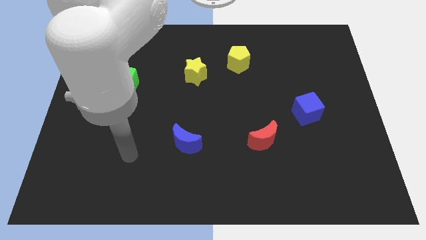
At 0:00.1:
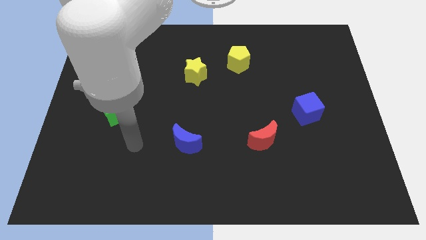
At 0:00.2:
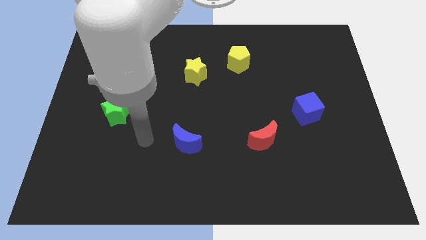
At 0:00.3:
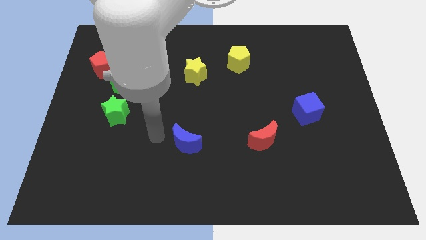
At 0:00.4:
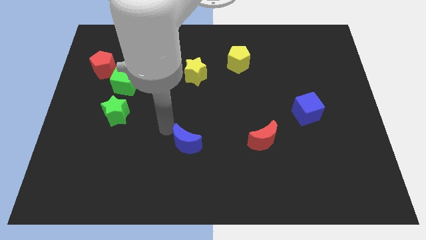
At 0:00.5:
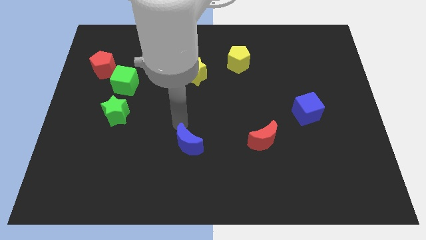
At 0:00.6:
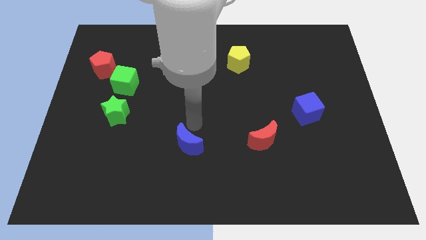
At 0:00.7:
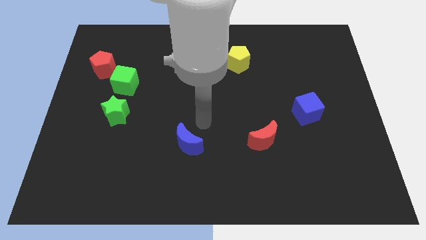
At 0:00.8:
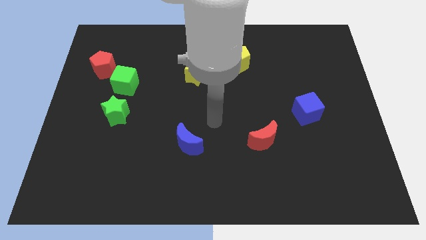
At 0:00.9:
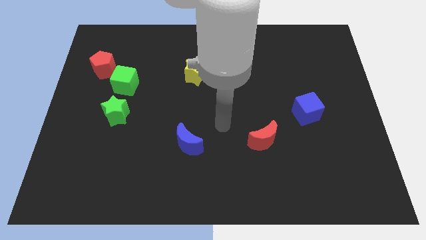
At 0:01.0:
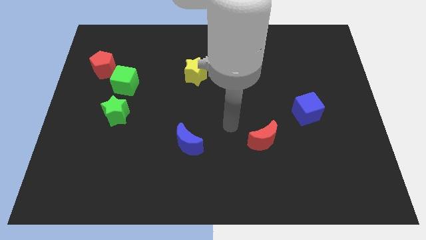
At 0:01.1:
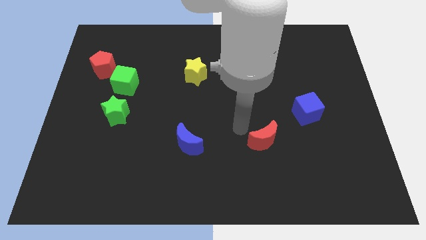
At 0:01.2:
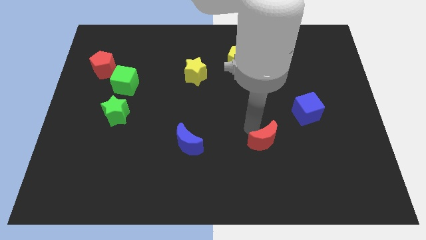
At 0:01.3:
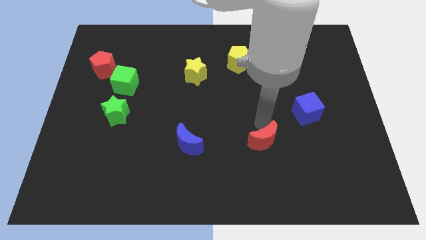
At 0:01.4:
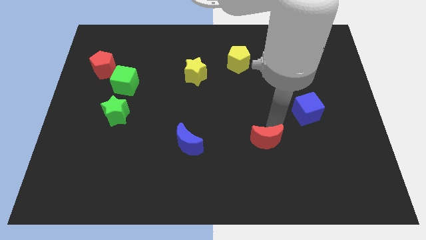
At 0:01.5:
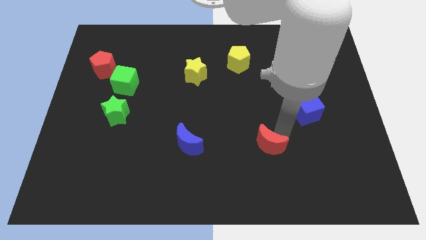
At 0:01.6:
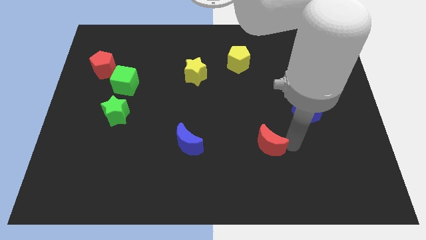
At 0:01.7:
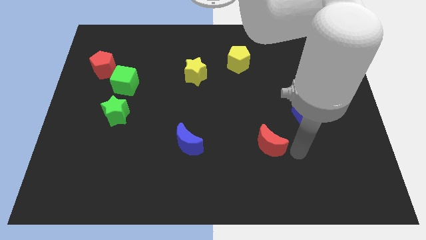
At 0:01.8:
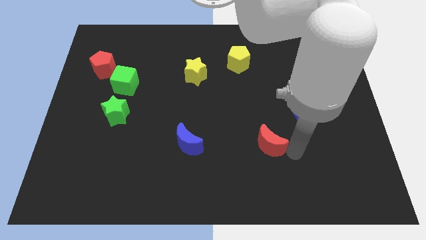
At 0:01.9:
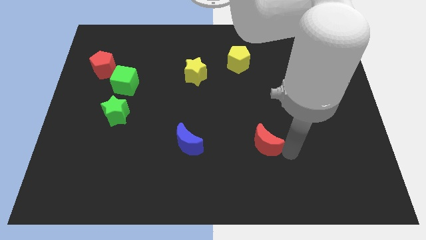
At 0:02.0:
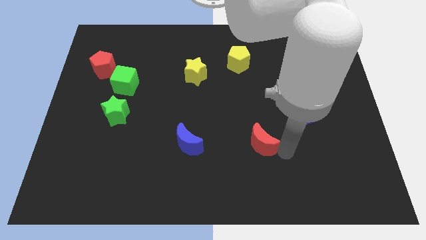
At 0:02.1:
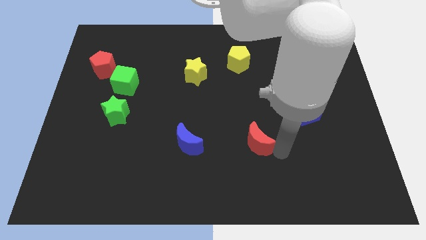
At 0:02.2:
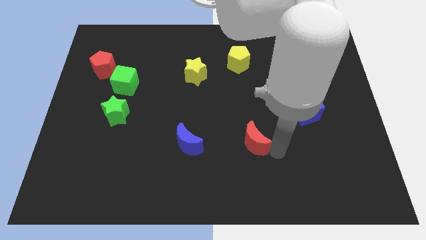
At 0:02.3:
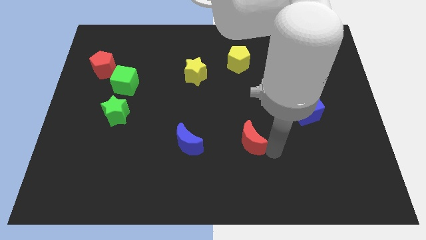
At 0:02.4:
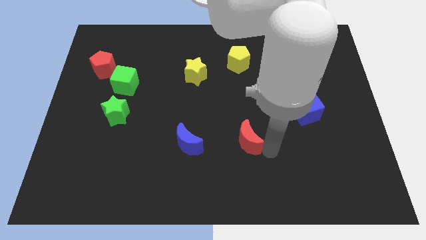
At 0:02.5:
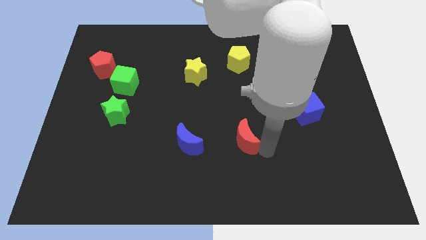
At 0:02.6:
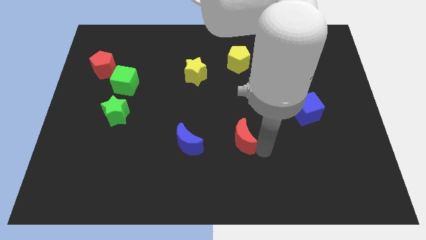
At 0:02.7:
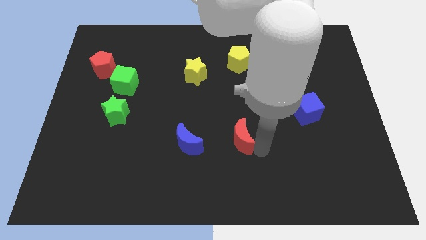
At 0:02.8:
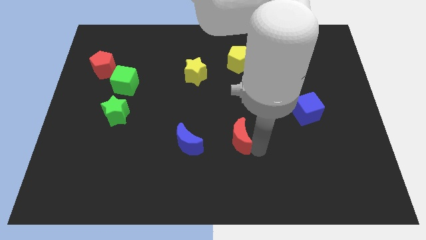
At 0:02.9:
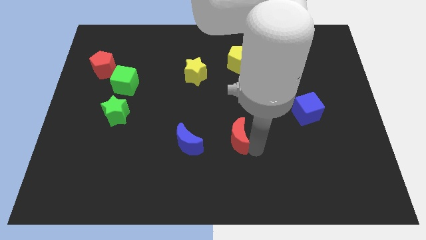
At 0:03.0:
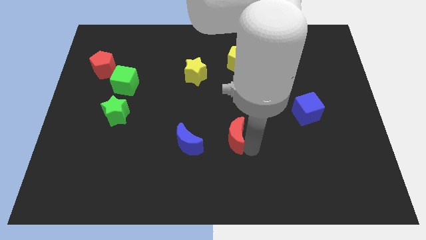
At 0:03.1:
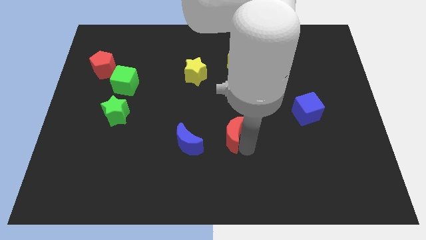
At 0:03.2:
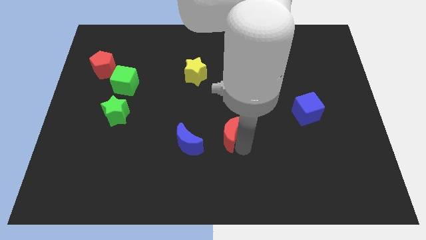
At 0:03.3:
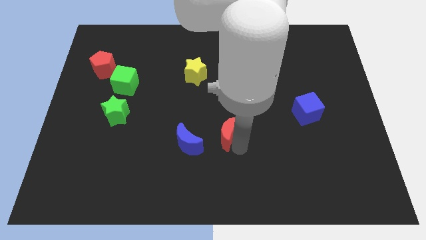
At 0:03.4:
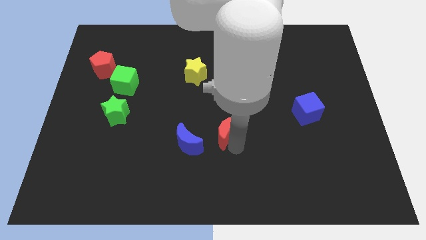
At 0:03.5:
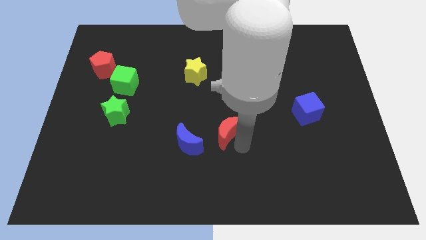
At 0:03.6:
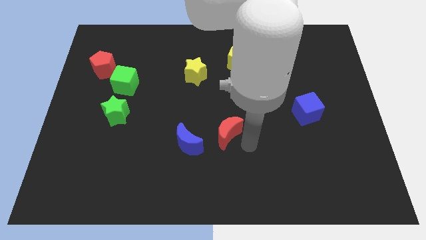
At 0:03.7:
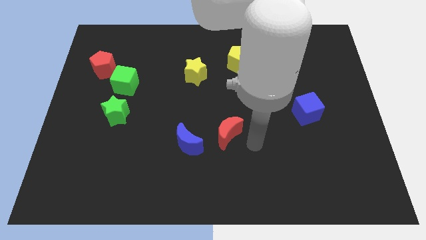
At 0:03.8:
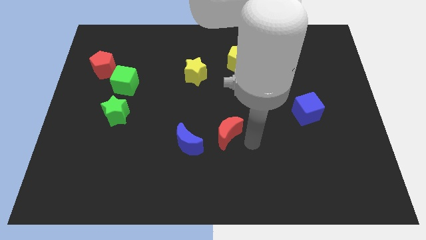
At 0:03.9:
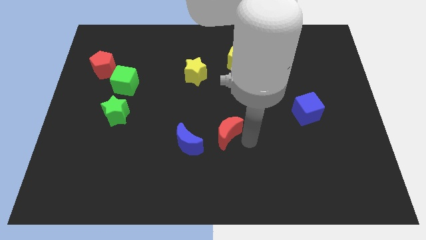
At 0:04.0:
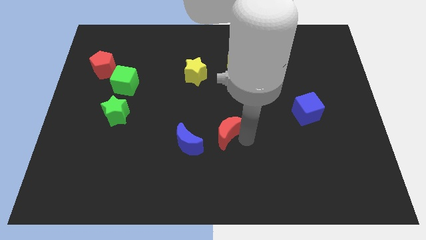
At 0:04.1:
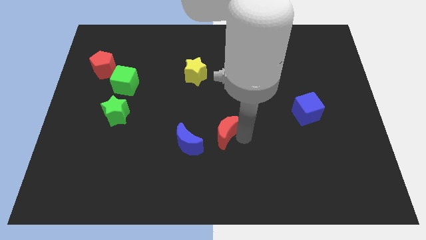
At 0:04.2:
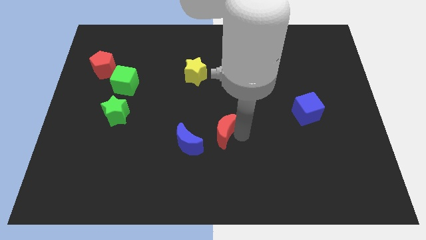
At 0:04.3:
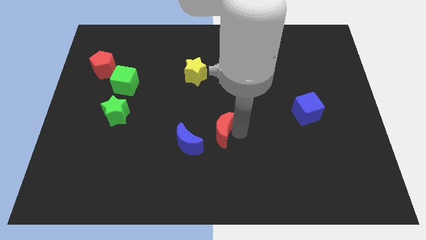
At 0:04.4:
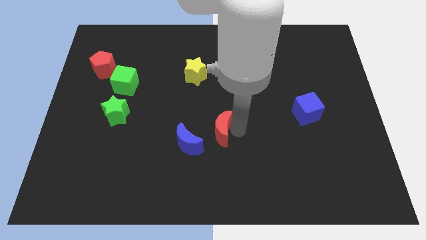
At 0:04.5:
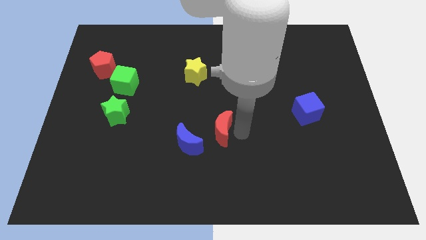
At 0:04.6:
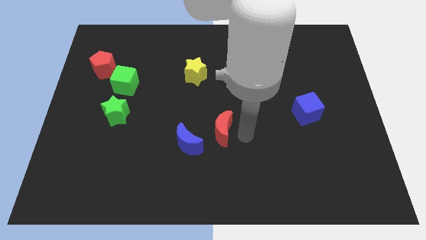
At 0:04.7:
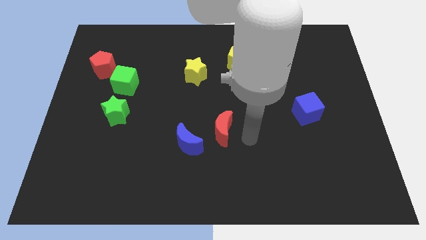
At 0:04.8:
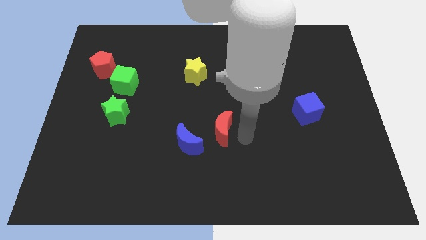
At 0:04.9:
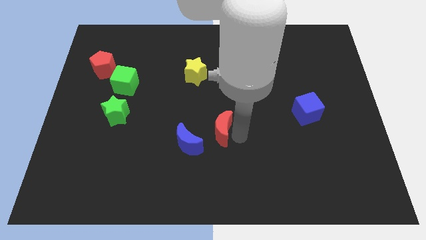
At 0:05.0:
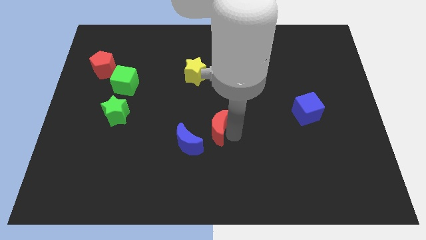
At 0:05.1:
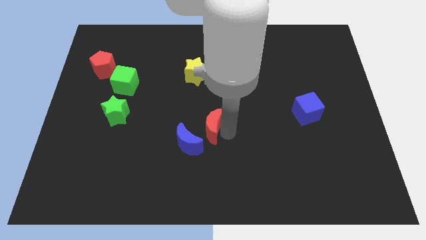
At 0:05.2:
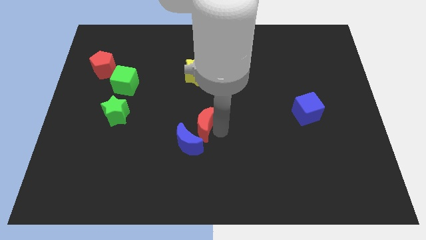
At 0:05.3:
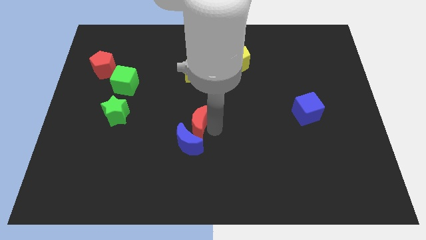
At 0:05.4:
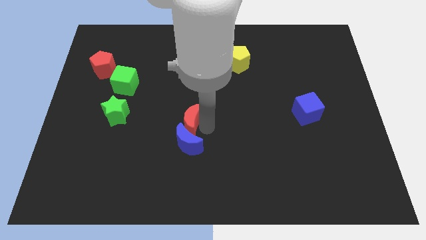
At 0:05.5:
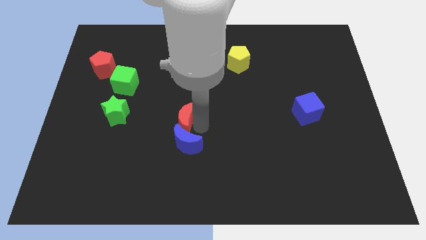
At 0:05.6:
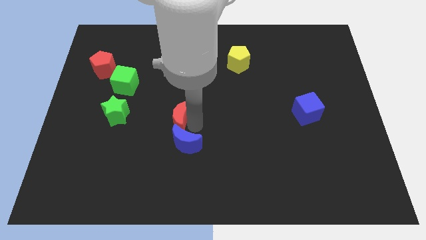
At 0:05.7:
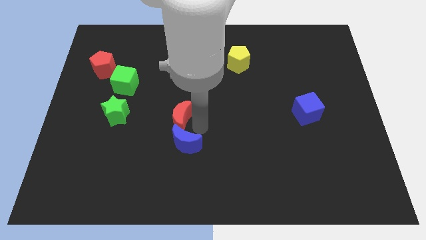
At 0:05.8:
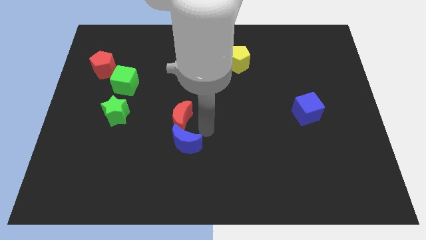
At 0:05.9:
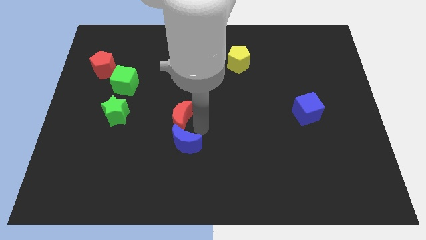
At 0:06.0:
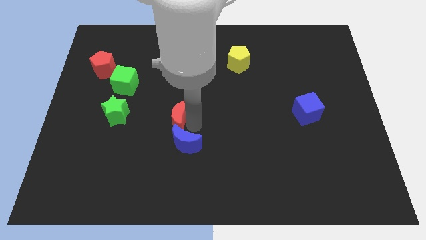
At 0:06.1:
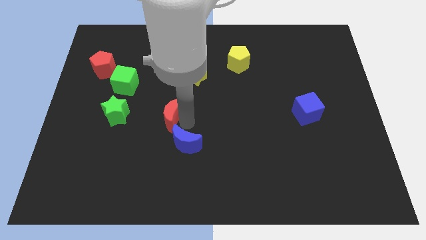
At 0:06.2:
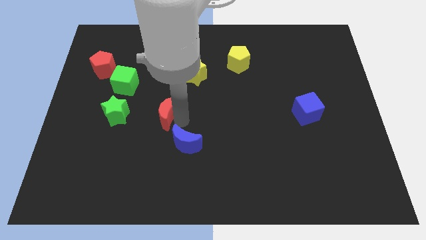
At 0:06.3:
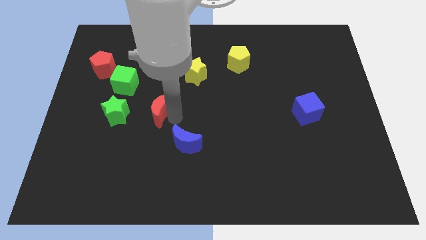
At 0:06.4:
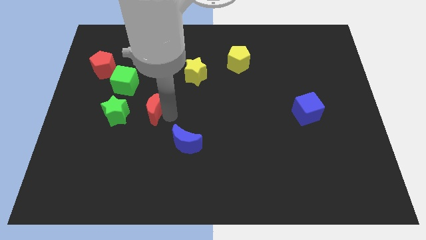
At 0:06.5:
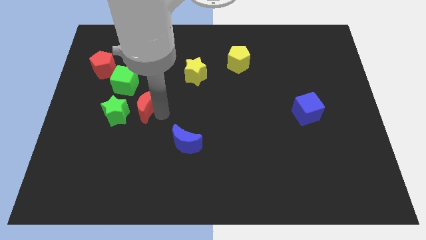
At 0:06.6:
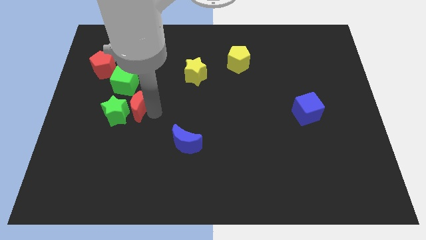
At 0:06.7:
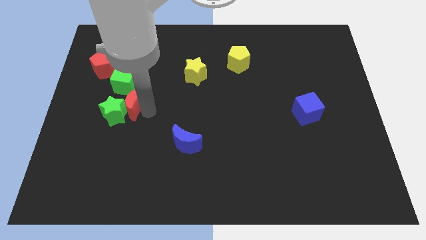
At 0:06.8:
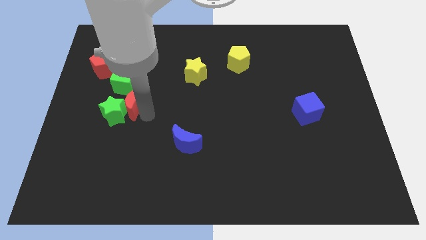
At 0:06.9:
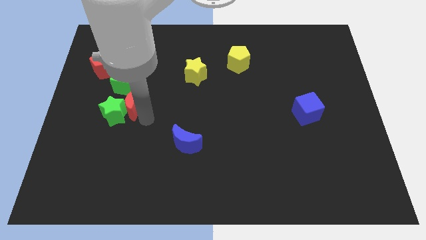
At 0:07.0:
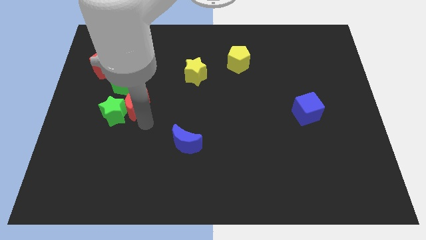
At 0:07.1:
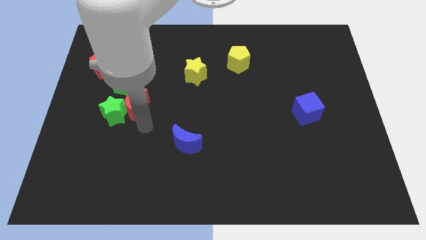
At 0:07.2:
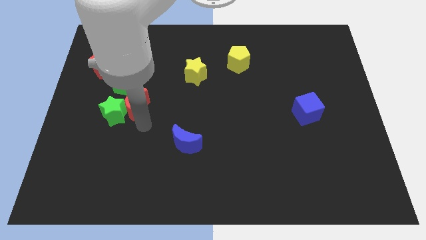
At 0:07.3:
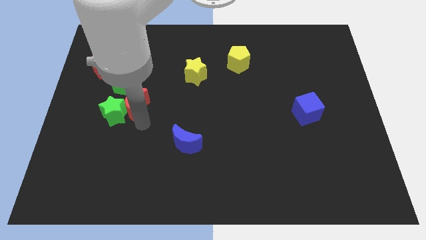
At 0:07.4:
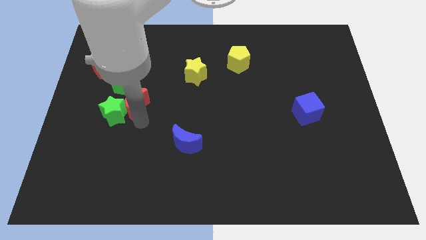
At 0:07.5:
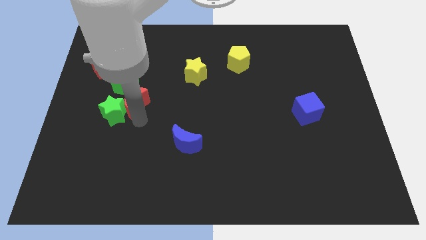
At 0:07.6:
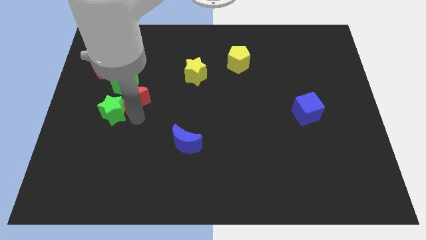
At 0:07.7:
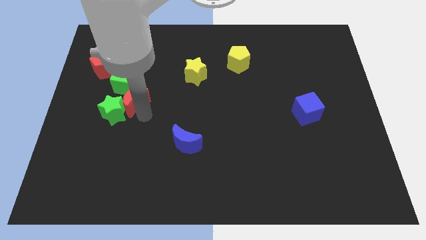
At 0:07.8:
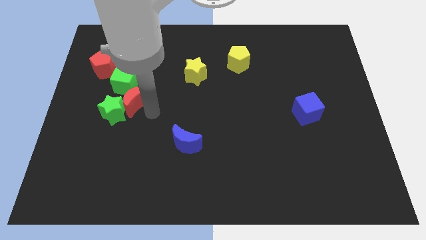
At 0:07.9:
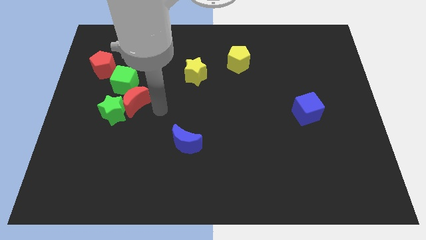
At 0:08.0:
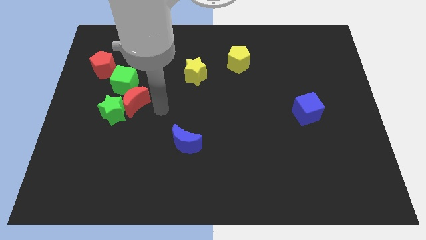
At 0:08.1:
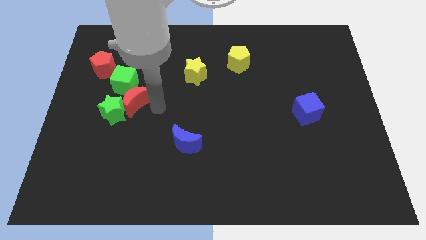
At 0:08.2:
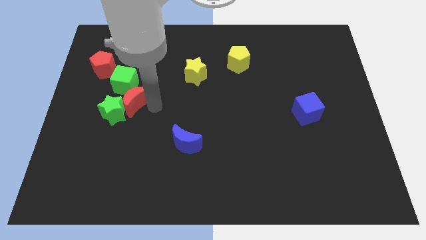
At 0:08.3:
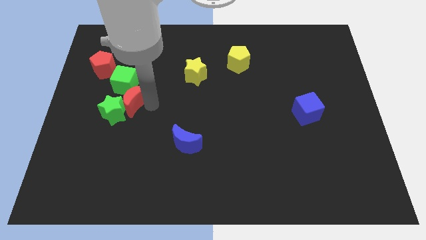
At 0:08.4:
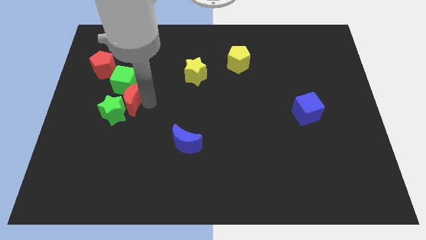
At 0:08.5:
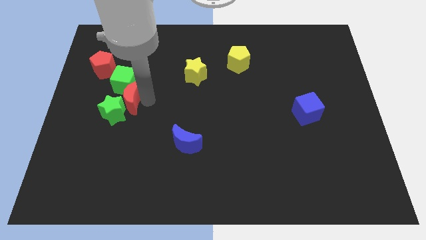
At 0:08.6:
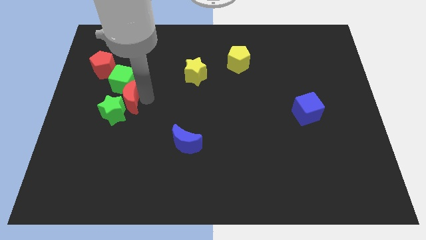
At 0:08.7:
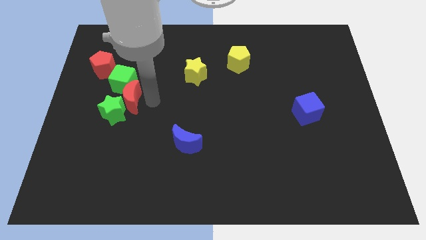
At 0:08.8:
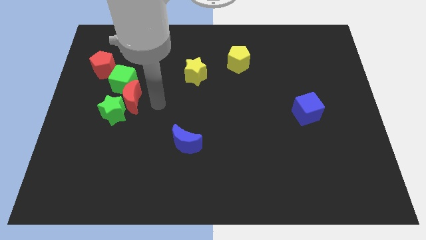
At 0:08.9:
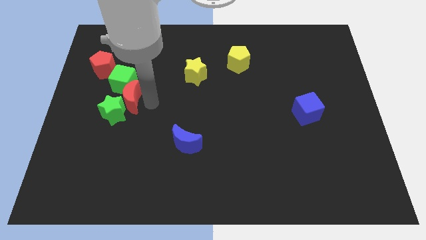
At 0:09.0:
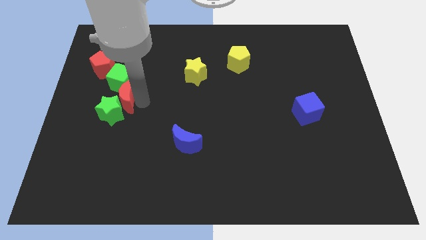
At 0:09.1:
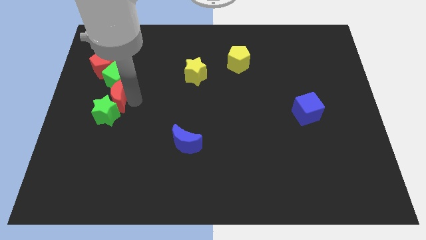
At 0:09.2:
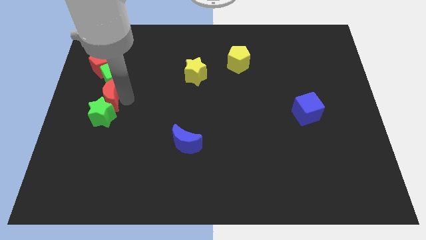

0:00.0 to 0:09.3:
move the red moon to the top left of the green star
